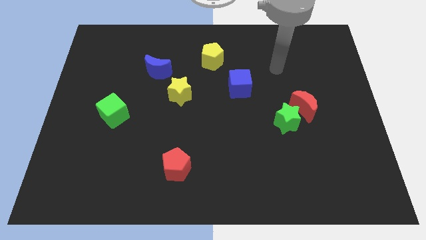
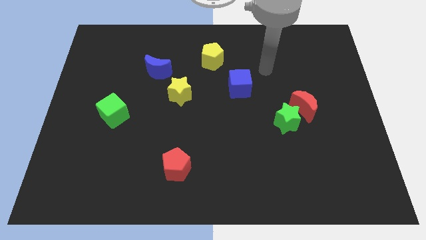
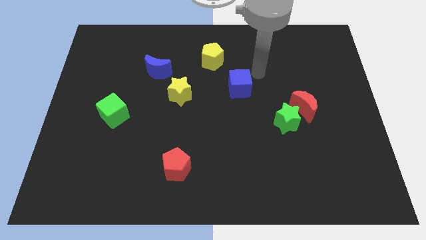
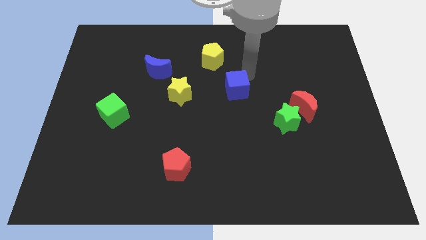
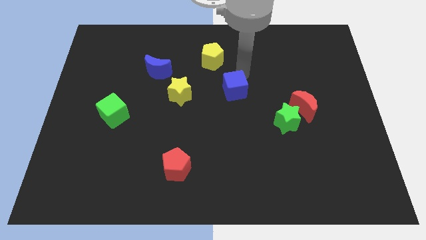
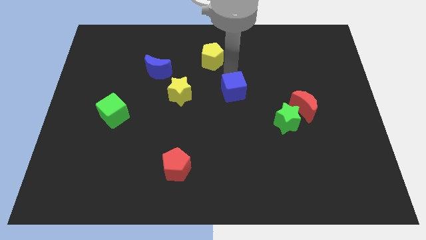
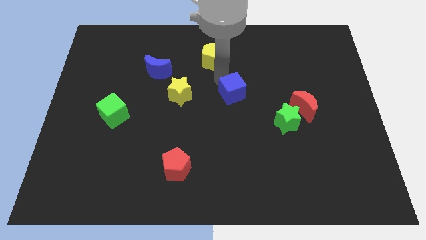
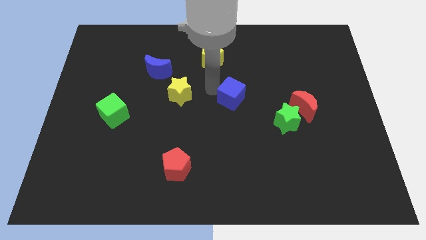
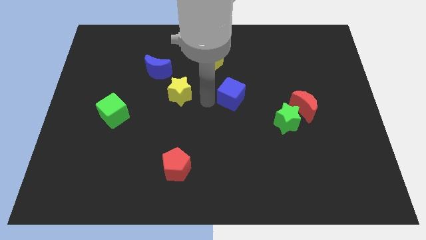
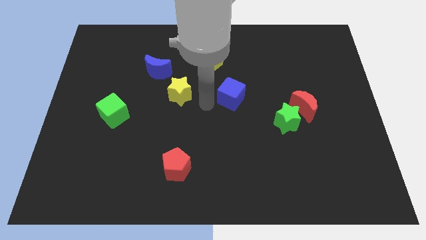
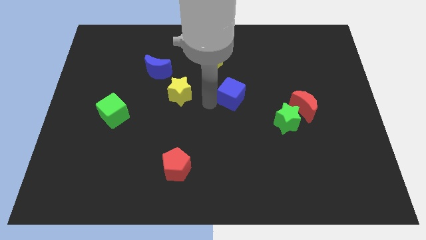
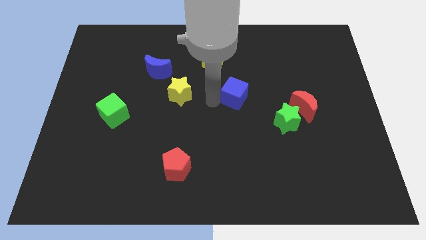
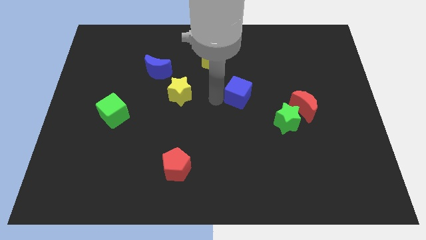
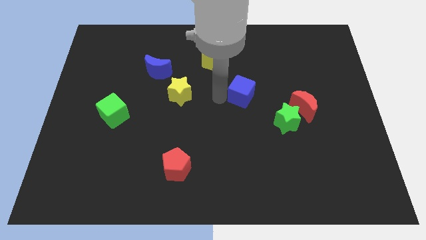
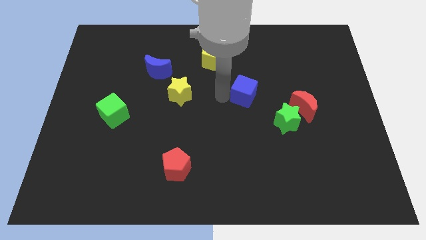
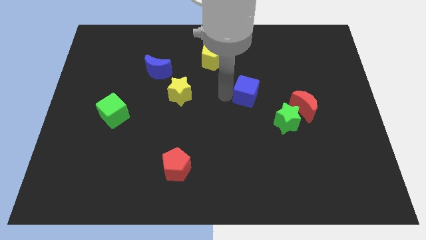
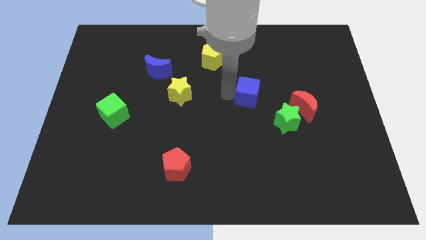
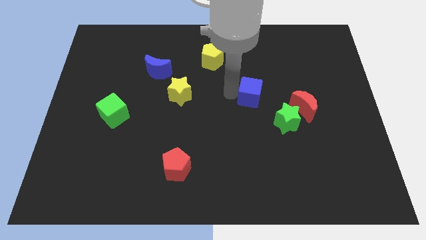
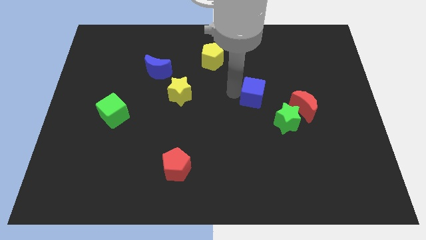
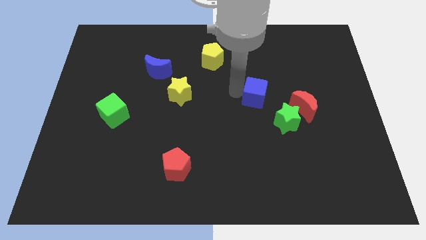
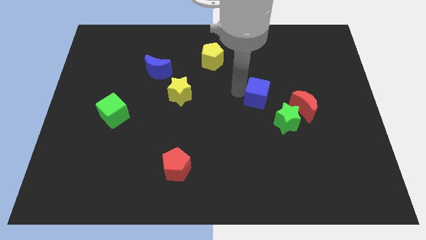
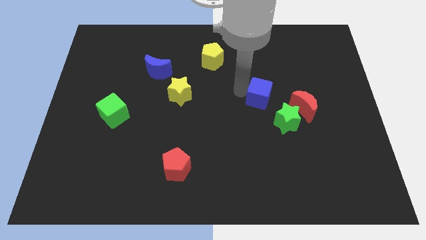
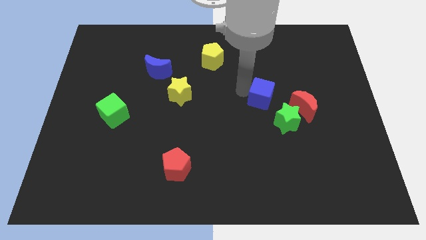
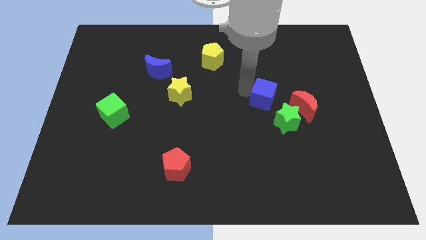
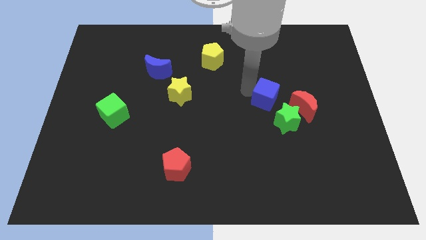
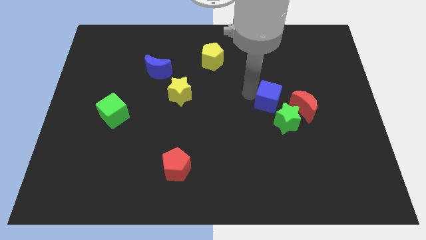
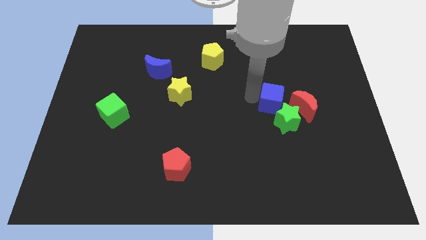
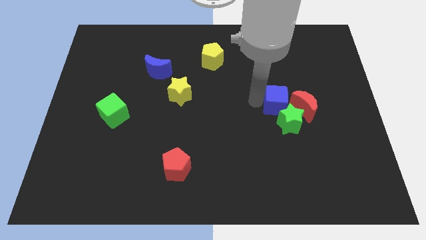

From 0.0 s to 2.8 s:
slightly move the blue cube right

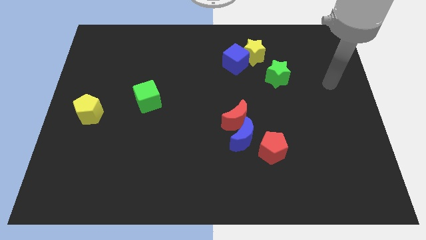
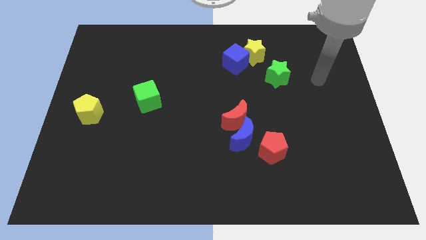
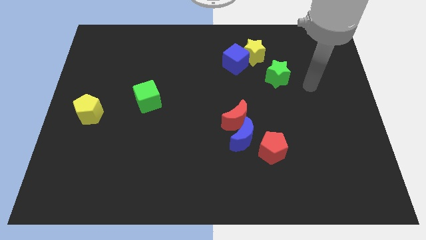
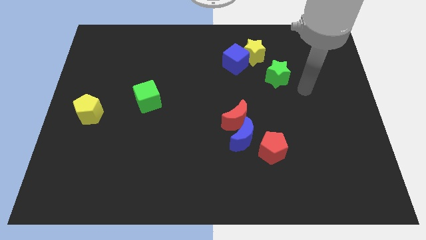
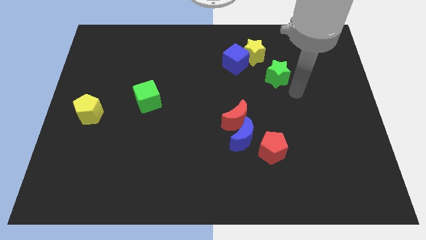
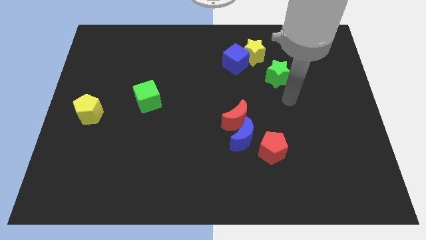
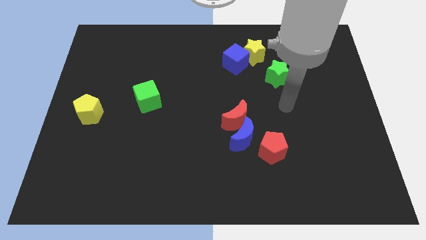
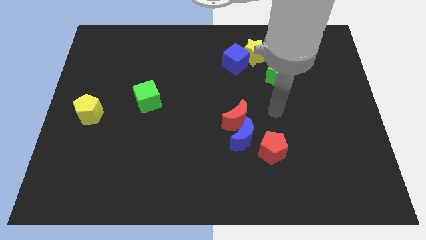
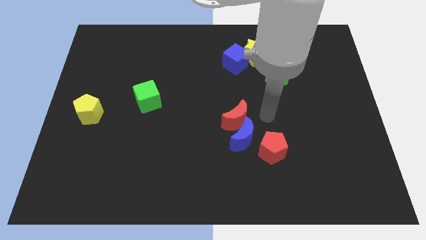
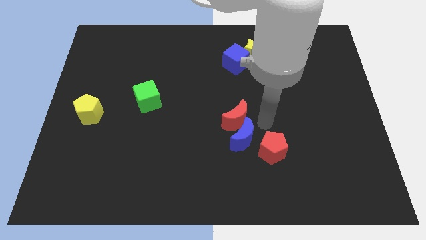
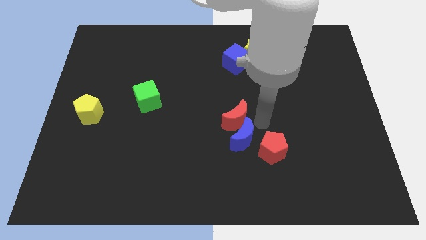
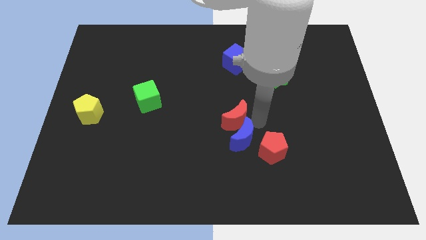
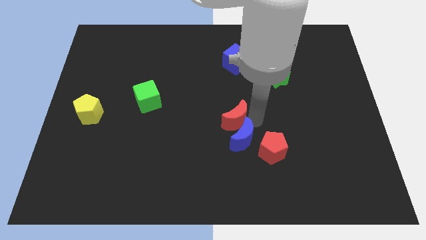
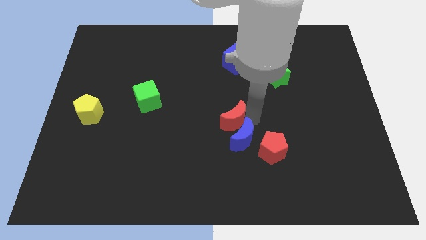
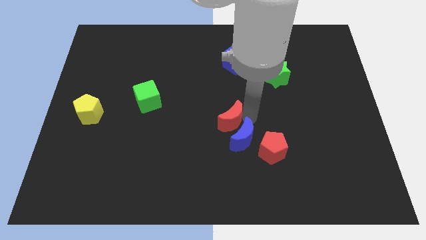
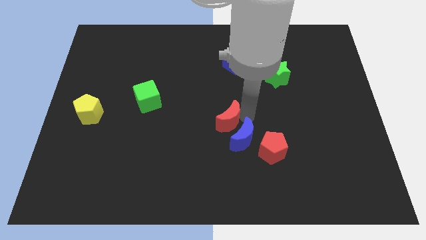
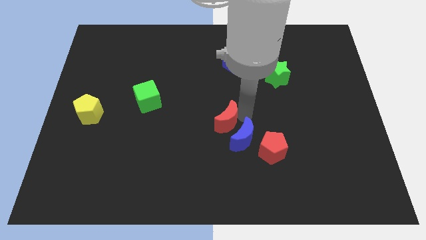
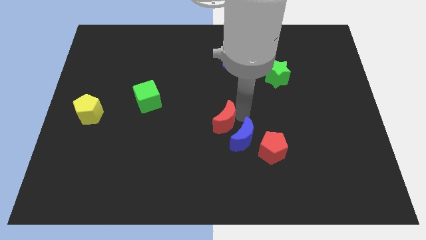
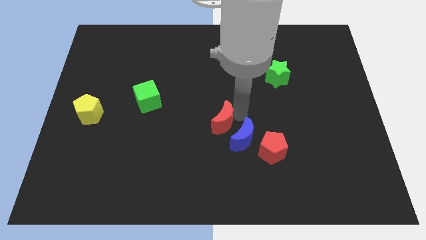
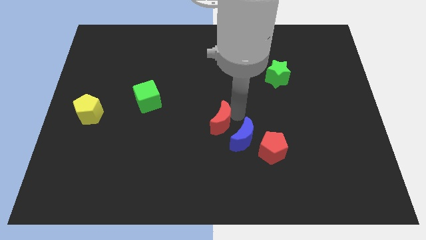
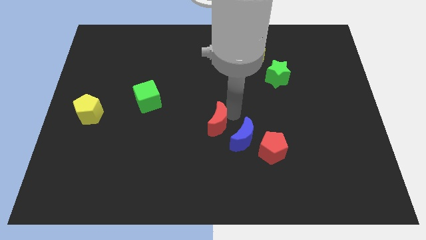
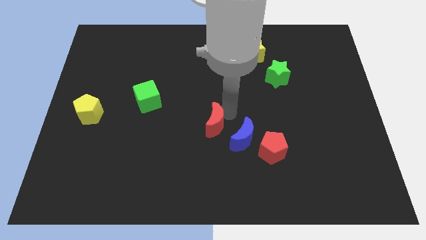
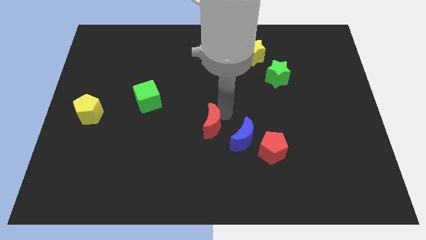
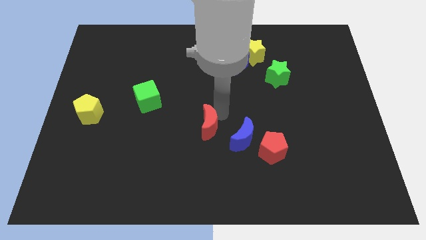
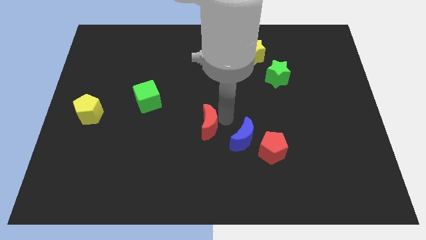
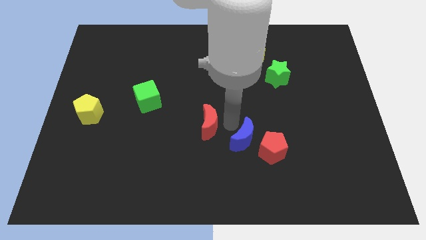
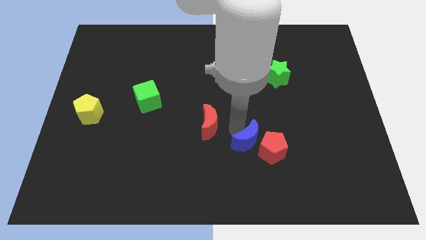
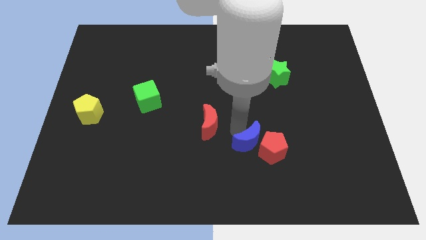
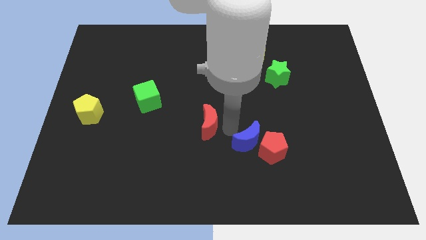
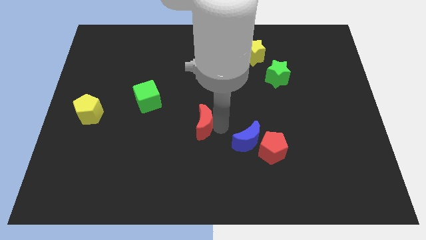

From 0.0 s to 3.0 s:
slightly move the red moon left

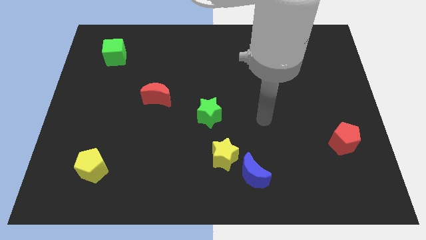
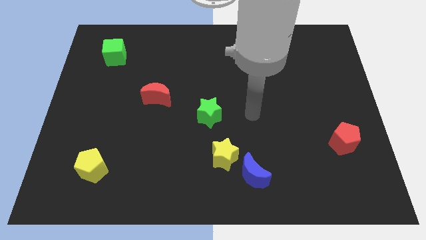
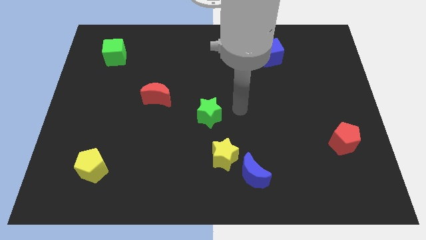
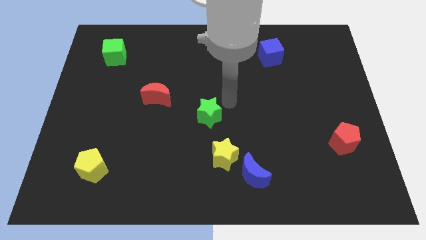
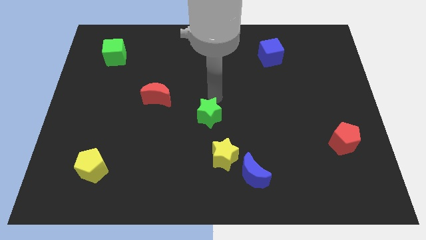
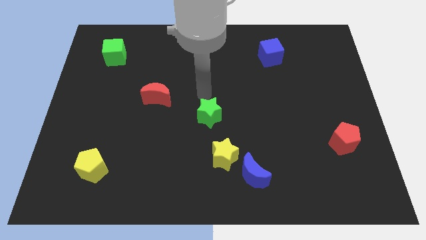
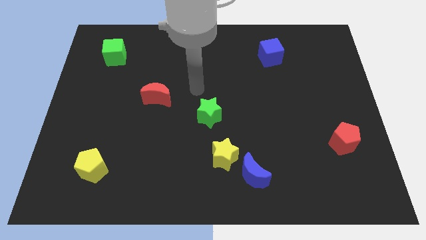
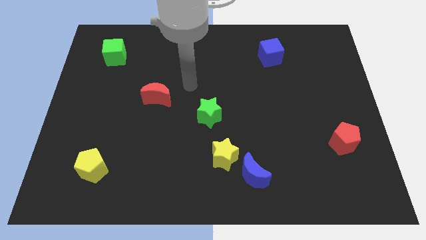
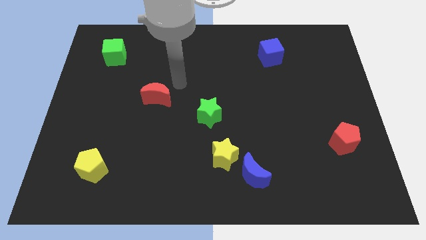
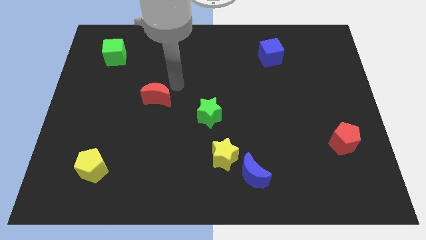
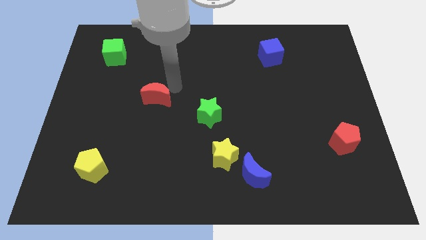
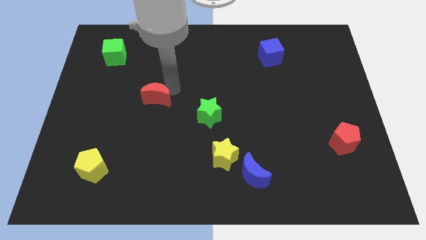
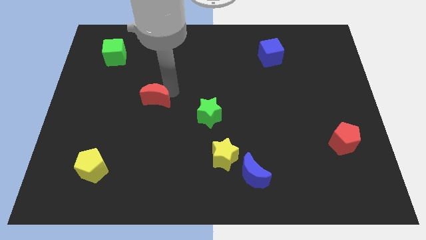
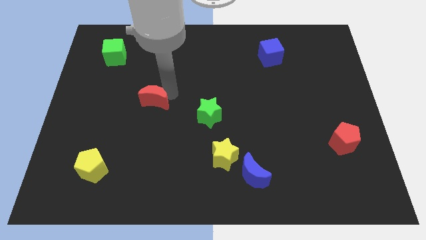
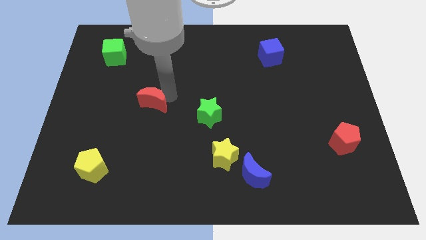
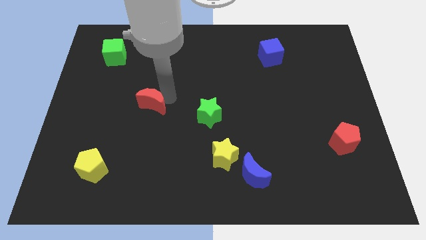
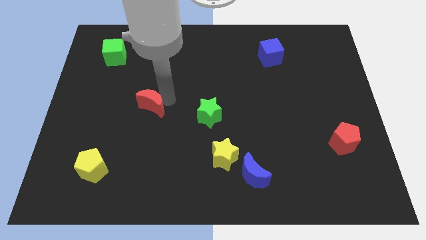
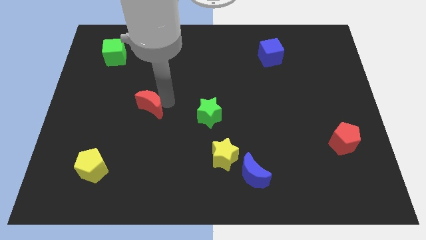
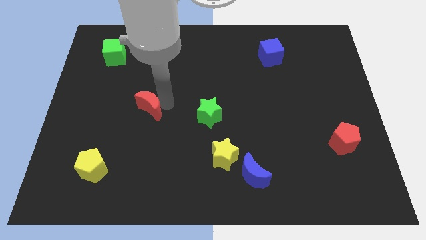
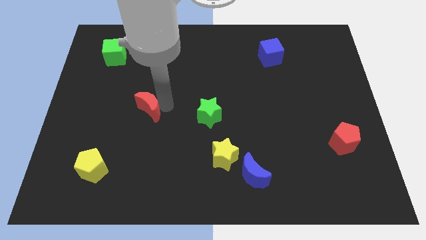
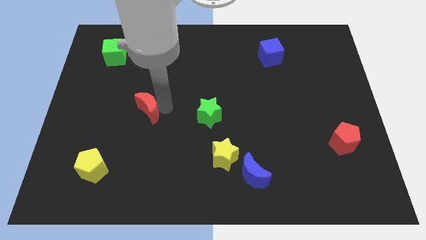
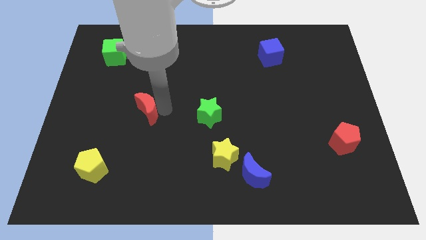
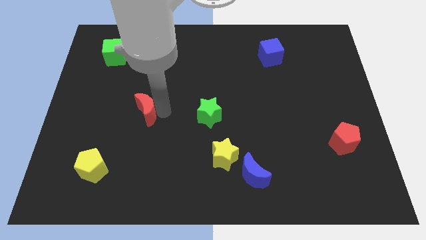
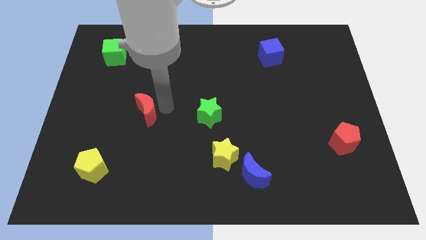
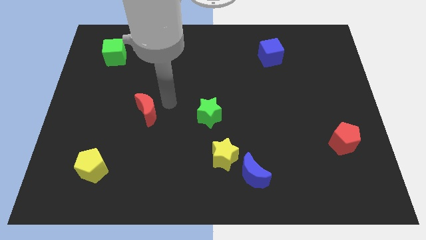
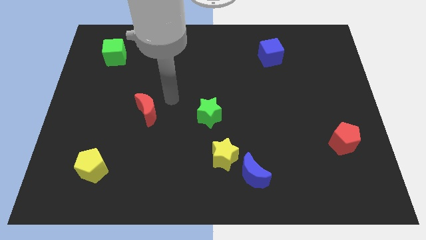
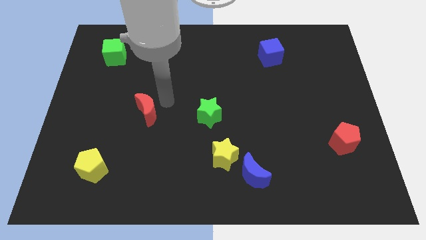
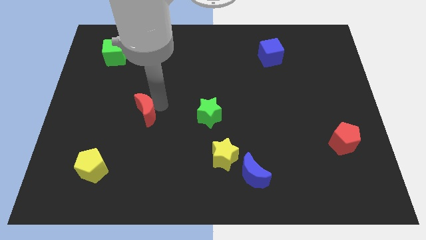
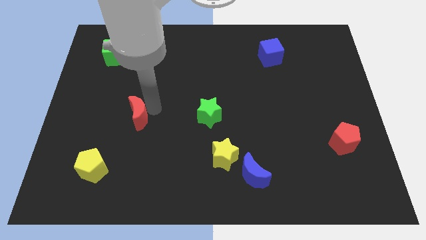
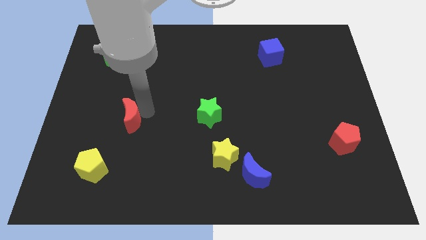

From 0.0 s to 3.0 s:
move the red moon down and then to the left slightly
